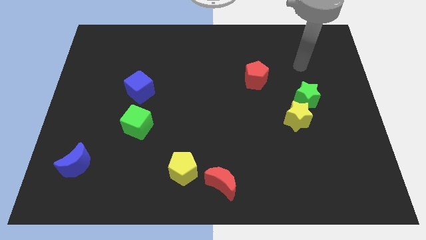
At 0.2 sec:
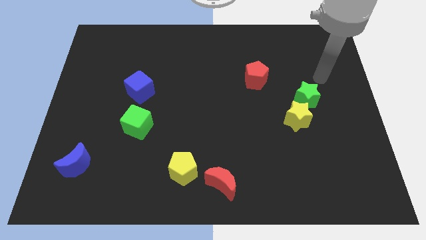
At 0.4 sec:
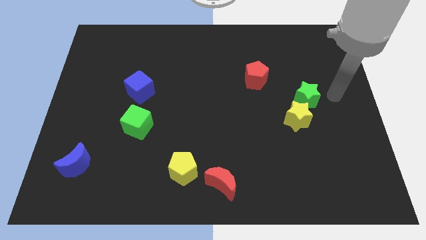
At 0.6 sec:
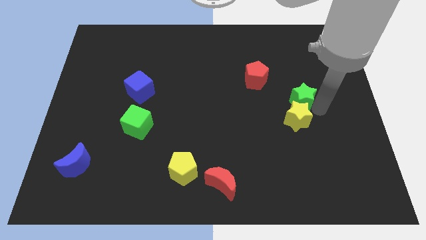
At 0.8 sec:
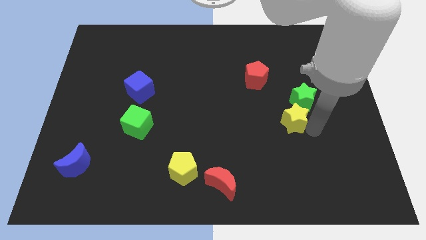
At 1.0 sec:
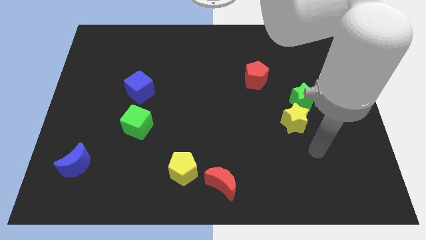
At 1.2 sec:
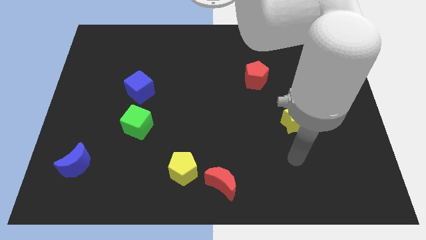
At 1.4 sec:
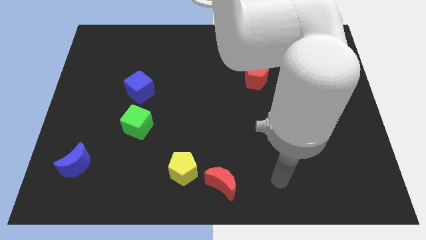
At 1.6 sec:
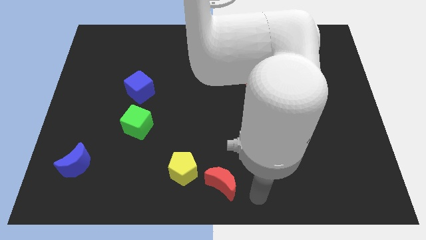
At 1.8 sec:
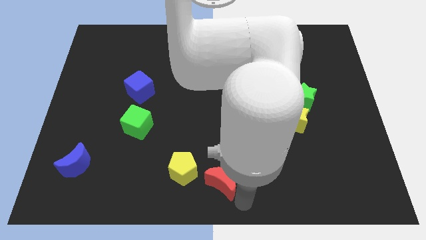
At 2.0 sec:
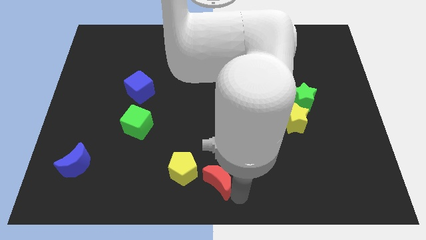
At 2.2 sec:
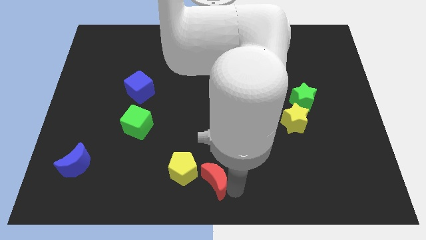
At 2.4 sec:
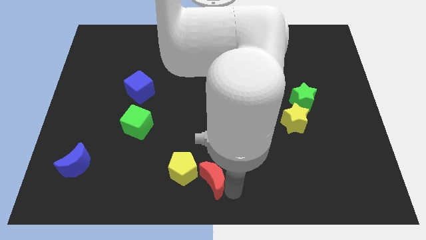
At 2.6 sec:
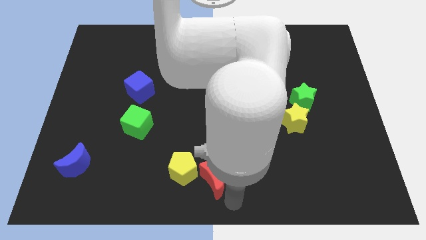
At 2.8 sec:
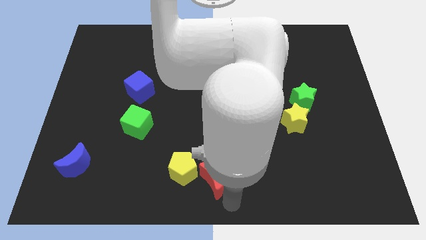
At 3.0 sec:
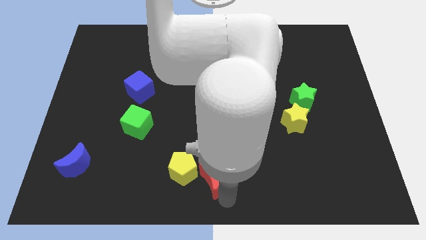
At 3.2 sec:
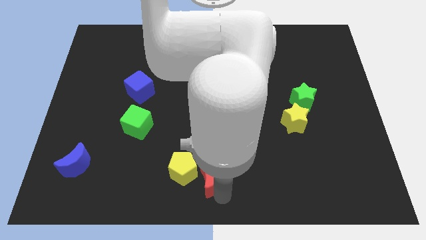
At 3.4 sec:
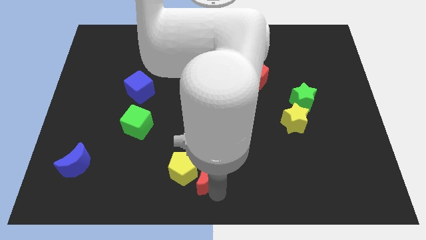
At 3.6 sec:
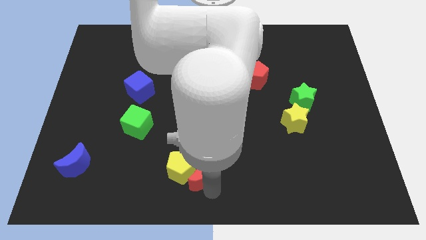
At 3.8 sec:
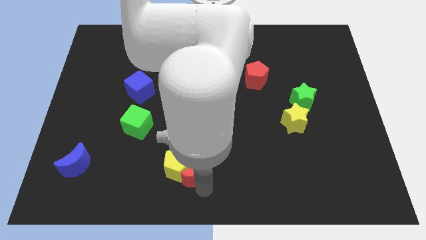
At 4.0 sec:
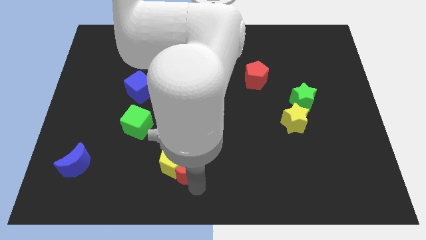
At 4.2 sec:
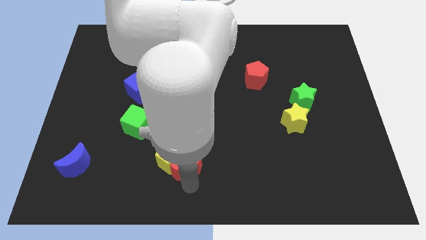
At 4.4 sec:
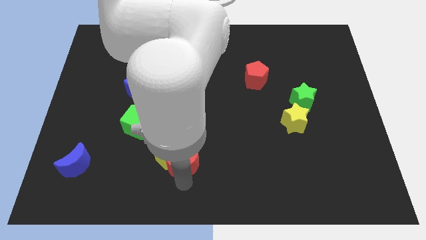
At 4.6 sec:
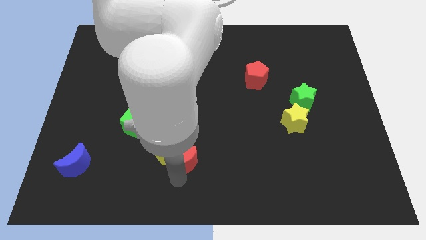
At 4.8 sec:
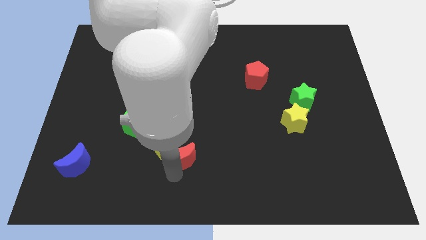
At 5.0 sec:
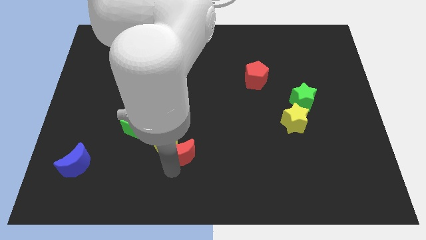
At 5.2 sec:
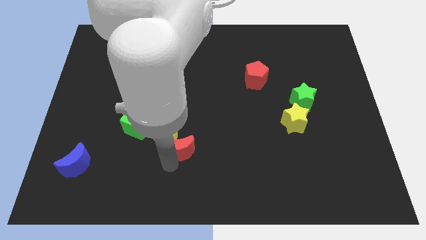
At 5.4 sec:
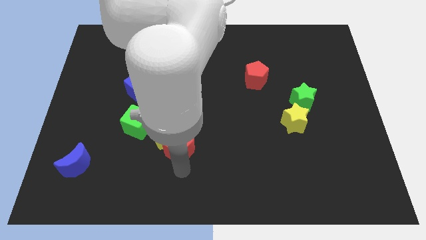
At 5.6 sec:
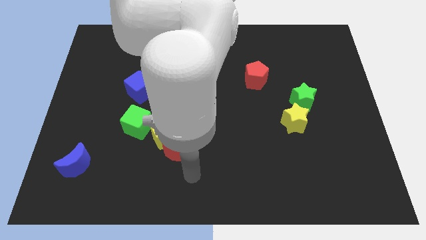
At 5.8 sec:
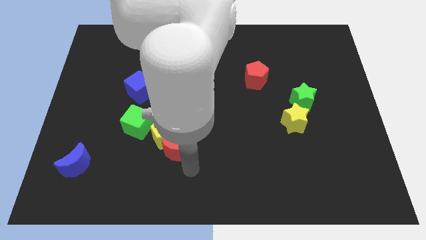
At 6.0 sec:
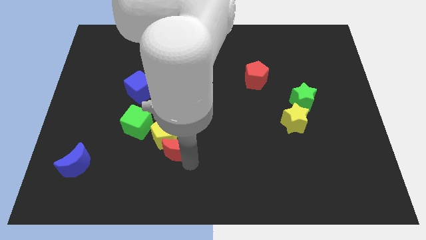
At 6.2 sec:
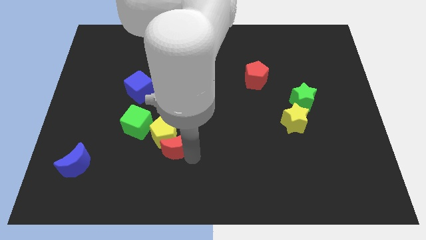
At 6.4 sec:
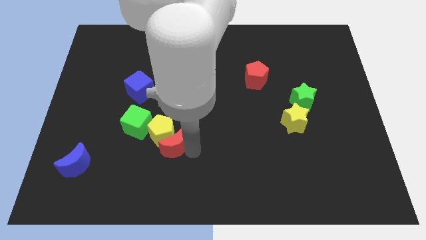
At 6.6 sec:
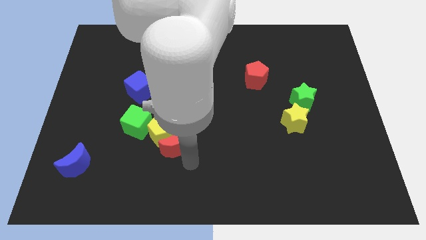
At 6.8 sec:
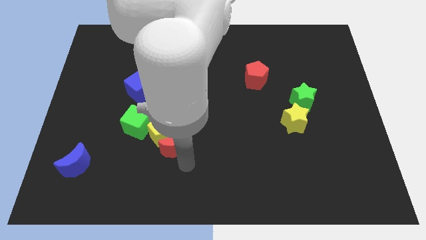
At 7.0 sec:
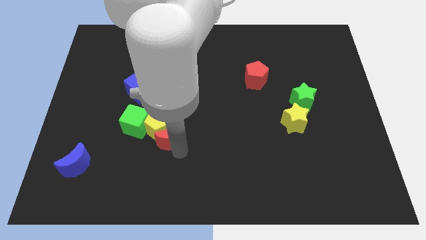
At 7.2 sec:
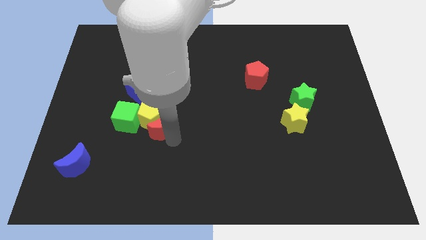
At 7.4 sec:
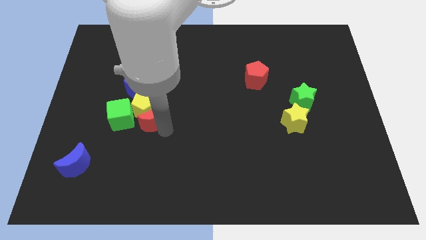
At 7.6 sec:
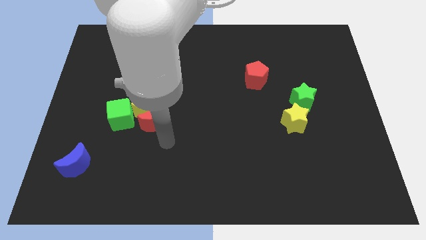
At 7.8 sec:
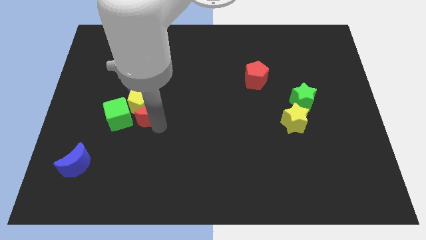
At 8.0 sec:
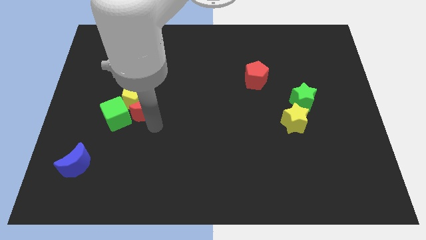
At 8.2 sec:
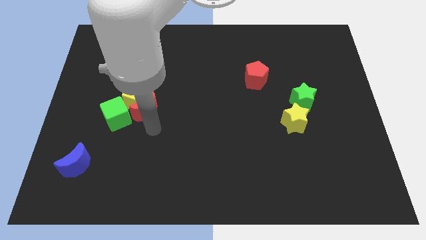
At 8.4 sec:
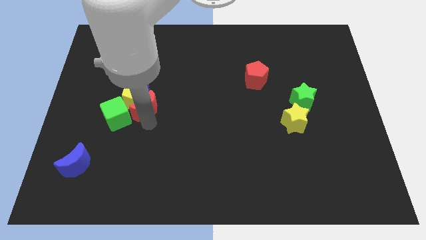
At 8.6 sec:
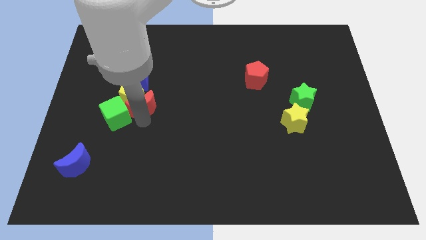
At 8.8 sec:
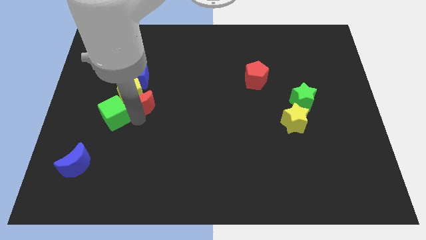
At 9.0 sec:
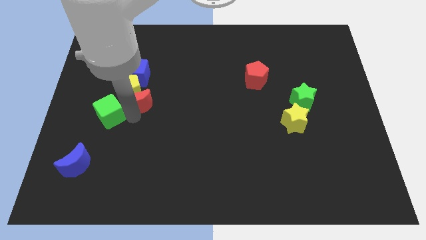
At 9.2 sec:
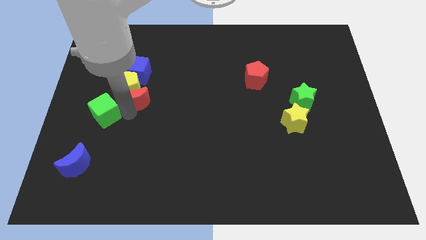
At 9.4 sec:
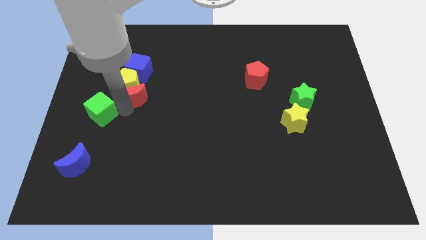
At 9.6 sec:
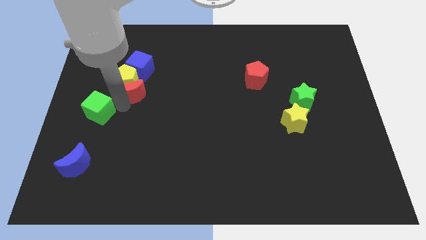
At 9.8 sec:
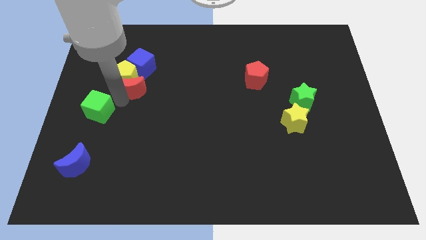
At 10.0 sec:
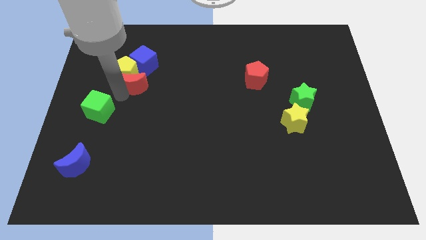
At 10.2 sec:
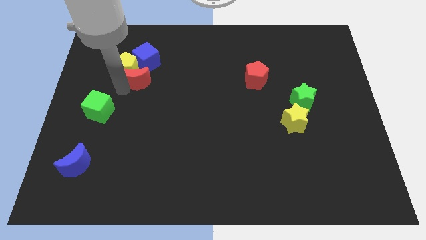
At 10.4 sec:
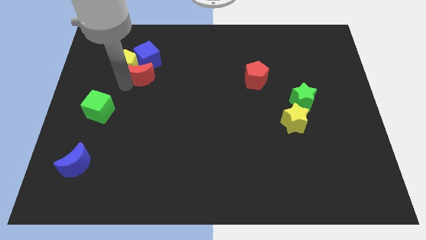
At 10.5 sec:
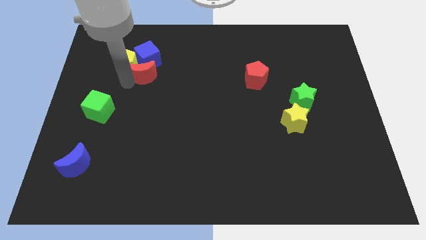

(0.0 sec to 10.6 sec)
put the red moon to the blue cube

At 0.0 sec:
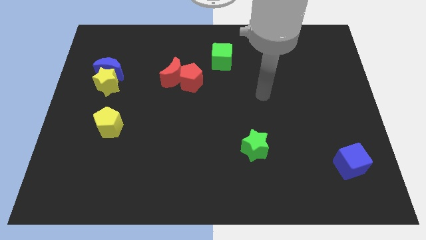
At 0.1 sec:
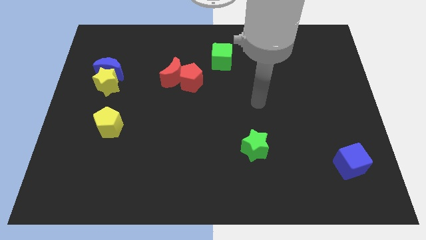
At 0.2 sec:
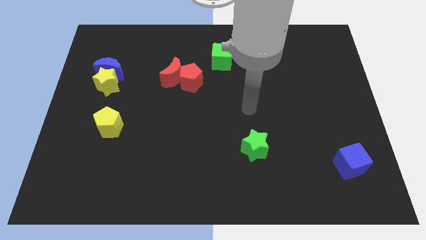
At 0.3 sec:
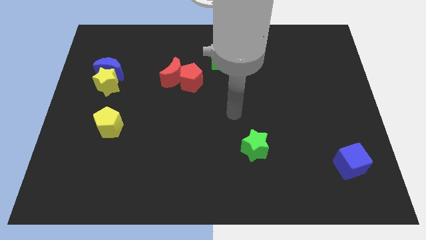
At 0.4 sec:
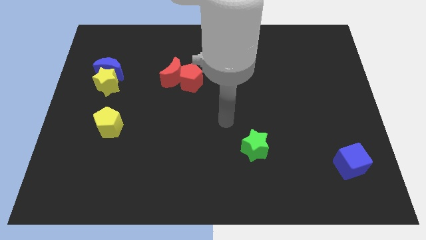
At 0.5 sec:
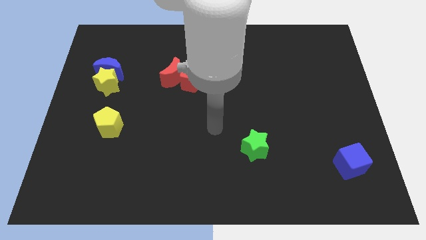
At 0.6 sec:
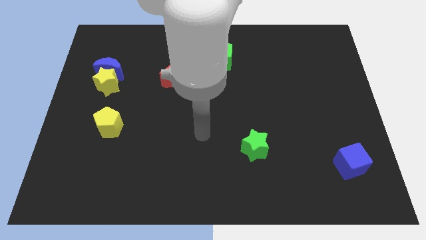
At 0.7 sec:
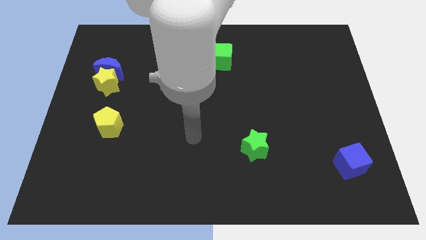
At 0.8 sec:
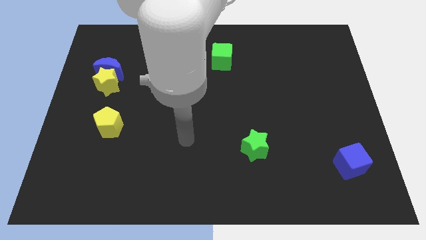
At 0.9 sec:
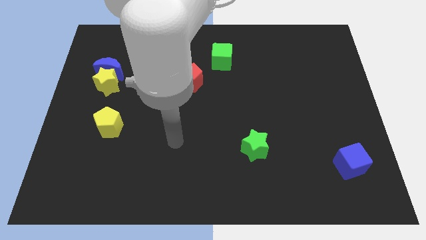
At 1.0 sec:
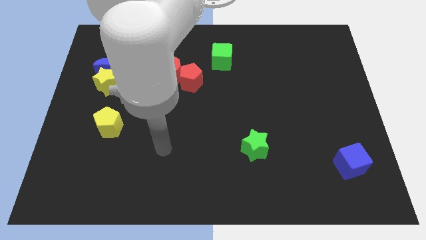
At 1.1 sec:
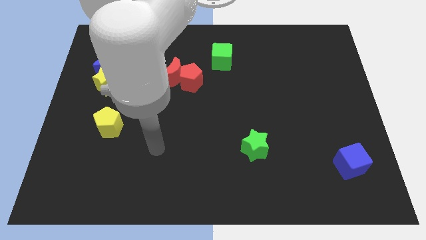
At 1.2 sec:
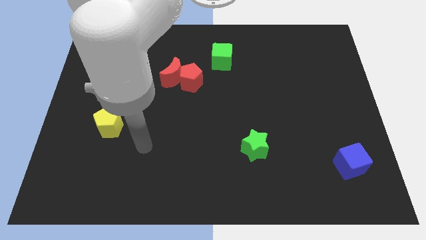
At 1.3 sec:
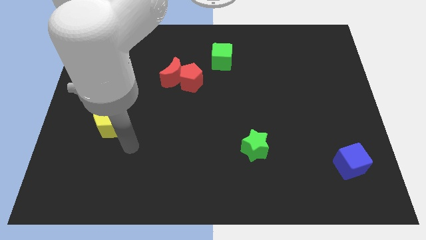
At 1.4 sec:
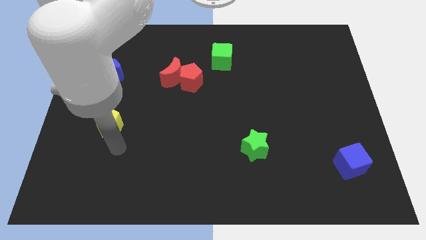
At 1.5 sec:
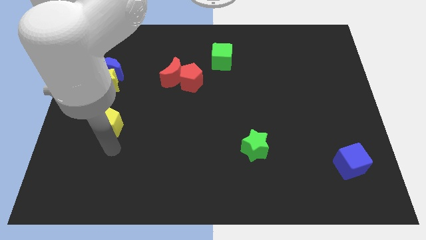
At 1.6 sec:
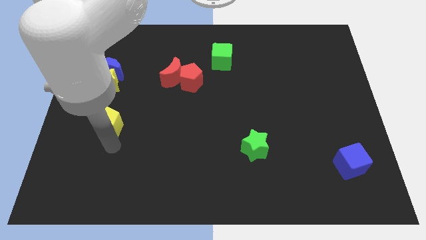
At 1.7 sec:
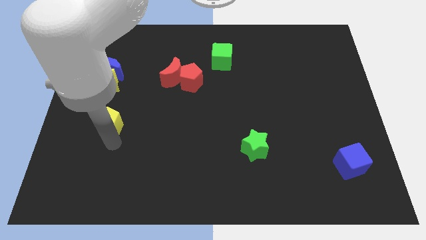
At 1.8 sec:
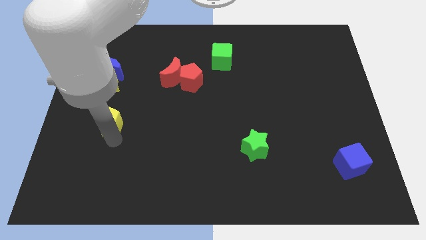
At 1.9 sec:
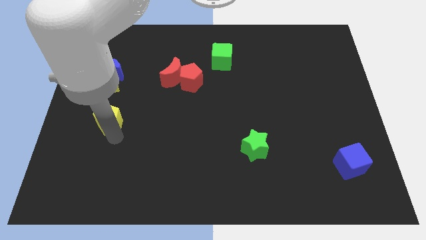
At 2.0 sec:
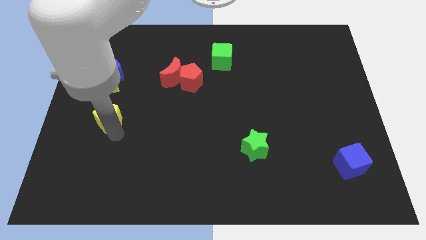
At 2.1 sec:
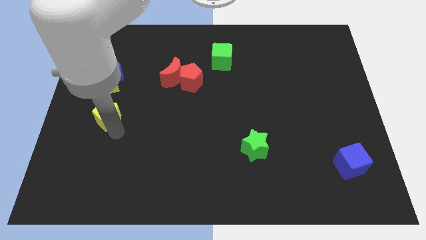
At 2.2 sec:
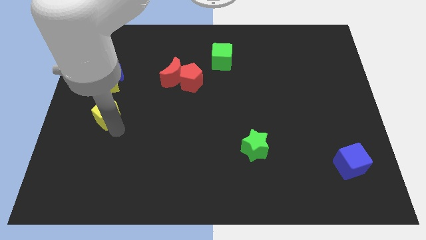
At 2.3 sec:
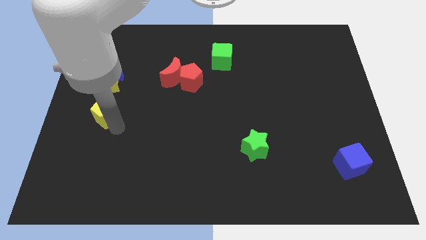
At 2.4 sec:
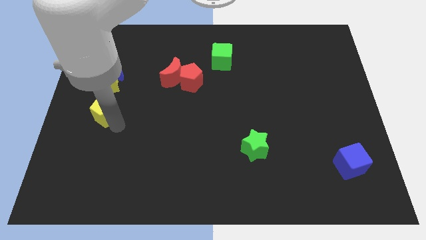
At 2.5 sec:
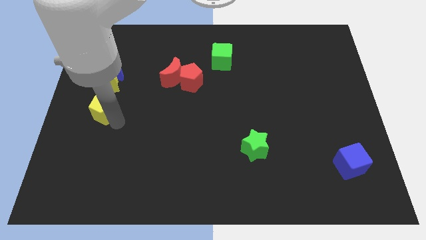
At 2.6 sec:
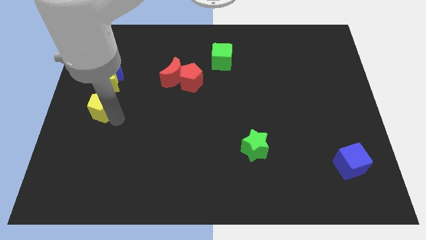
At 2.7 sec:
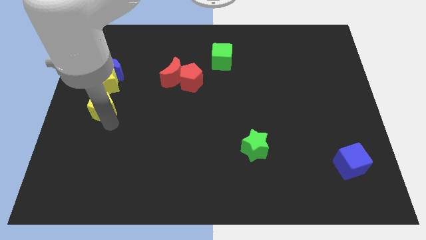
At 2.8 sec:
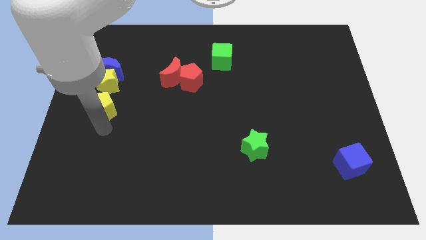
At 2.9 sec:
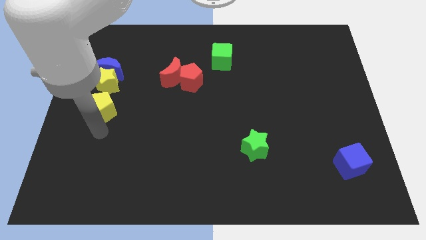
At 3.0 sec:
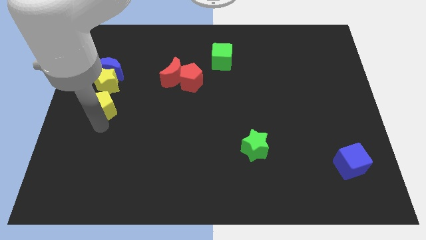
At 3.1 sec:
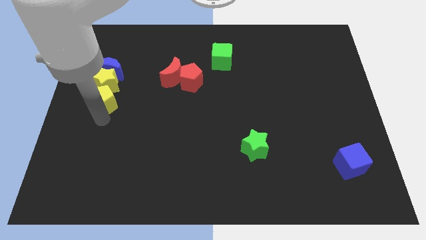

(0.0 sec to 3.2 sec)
move the yellow pentagon to the yellow star
